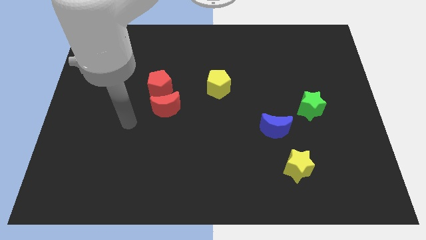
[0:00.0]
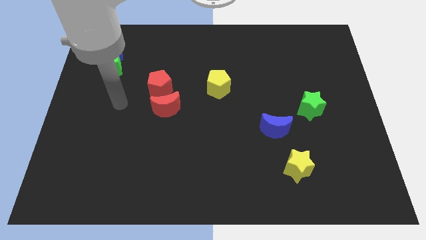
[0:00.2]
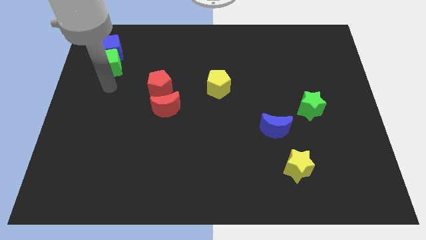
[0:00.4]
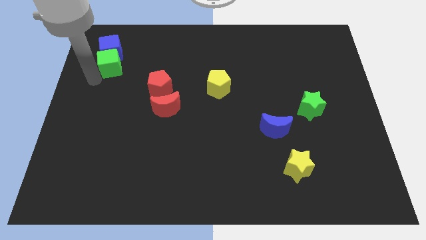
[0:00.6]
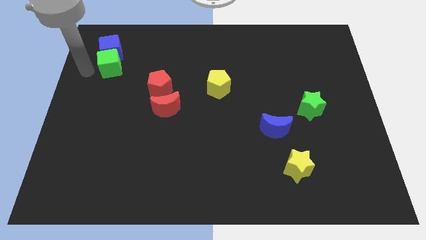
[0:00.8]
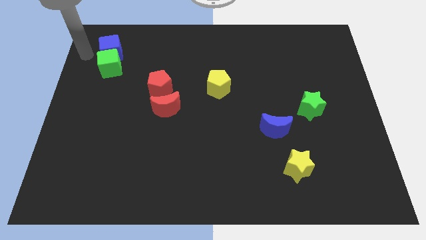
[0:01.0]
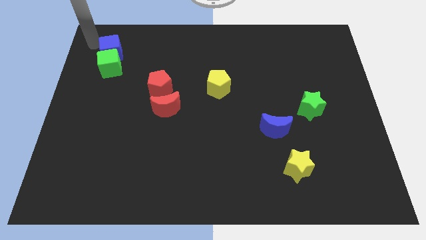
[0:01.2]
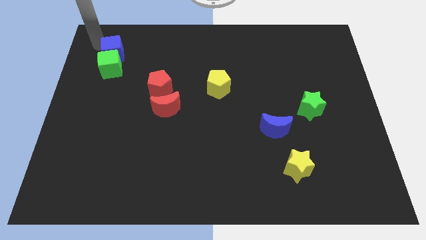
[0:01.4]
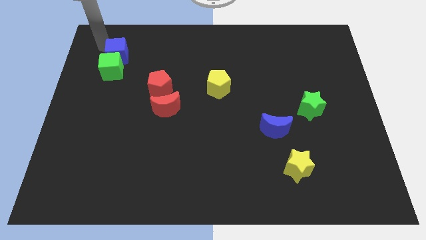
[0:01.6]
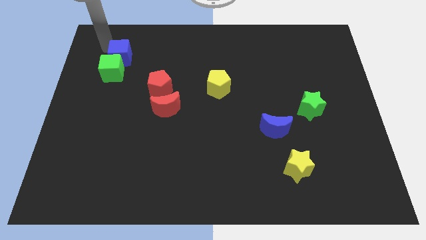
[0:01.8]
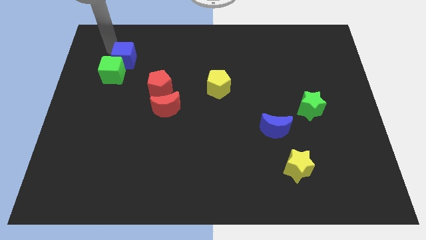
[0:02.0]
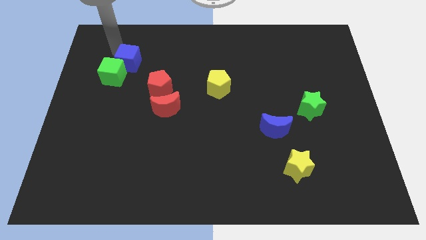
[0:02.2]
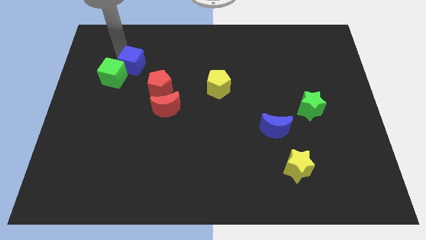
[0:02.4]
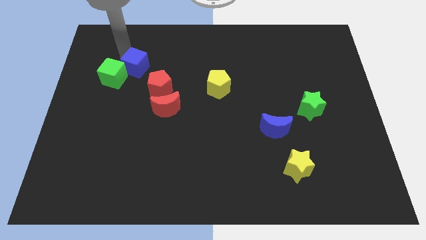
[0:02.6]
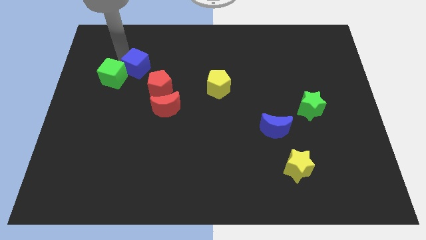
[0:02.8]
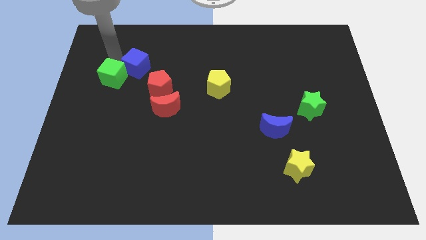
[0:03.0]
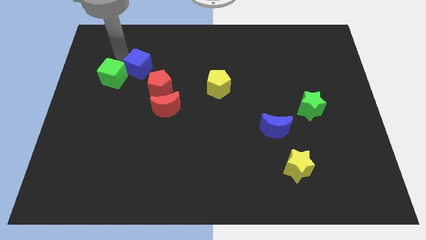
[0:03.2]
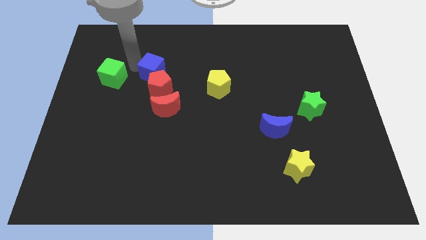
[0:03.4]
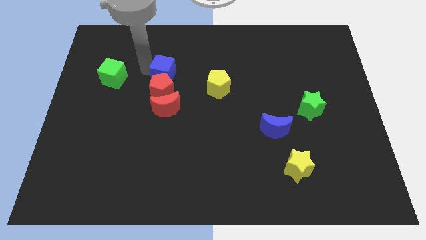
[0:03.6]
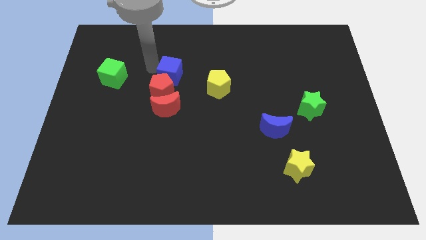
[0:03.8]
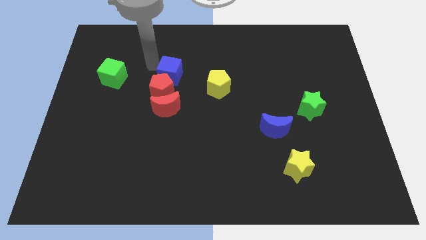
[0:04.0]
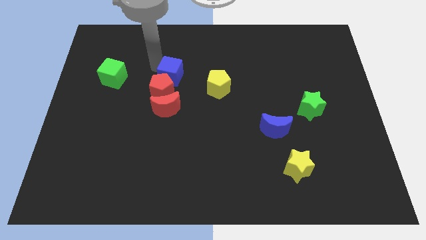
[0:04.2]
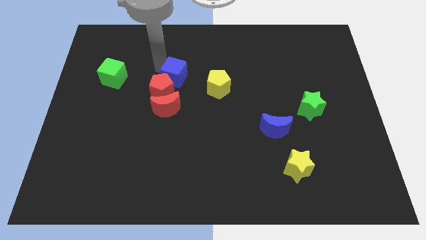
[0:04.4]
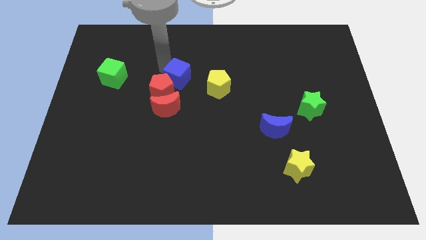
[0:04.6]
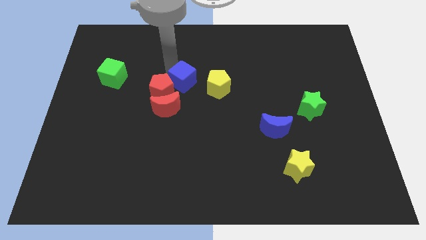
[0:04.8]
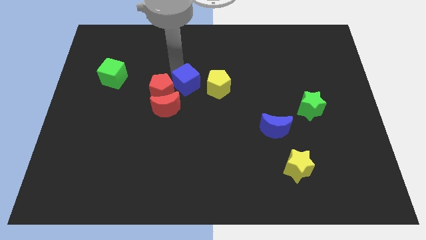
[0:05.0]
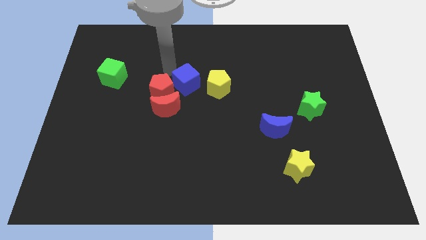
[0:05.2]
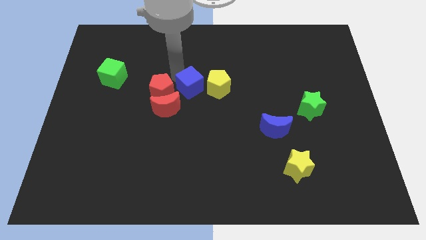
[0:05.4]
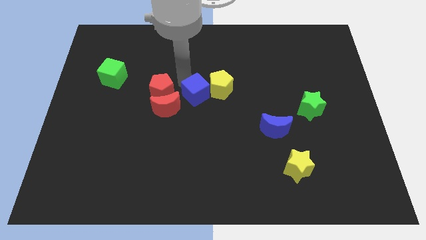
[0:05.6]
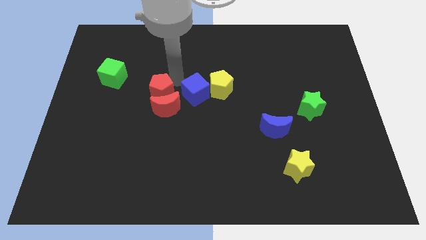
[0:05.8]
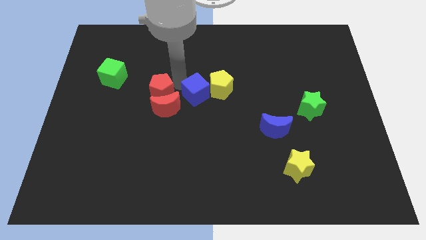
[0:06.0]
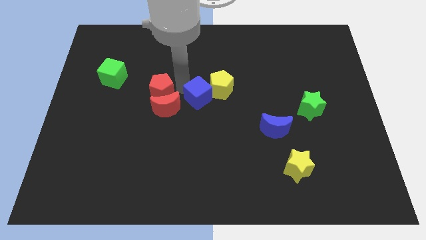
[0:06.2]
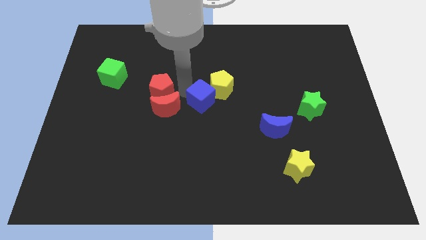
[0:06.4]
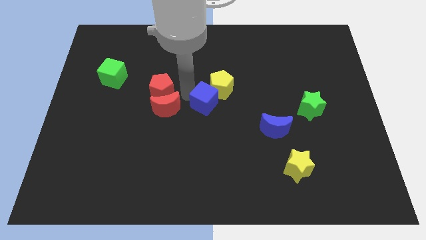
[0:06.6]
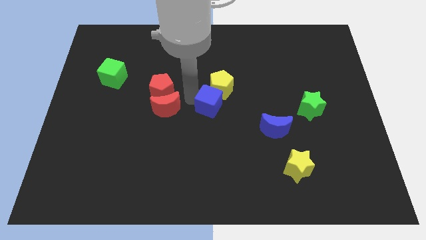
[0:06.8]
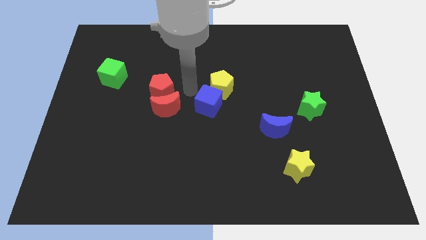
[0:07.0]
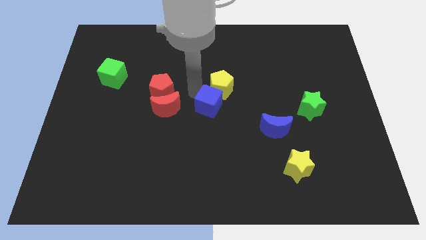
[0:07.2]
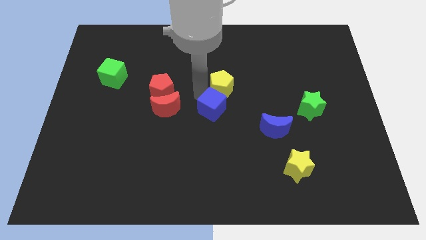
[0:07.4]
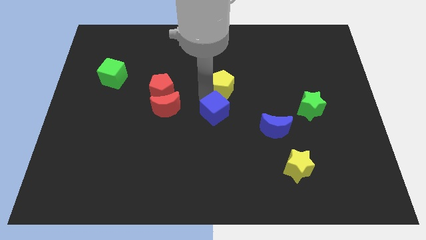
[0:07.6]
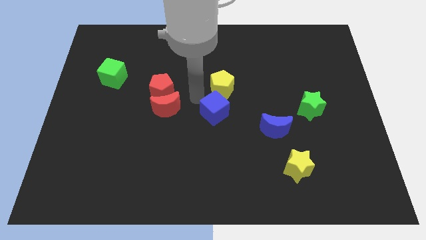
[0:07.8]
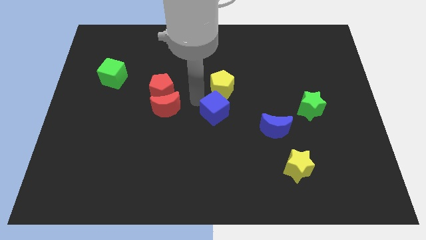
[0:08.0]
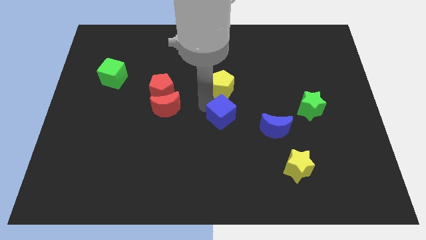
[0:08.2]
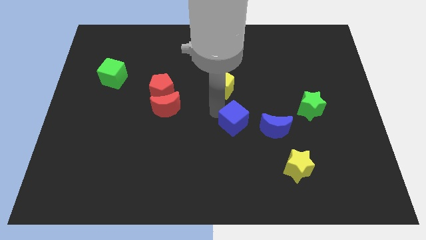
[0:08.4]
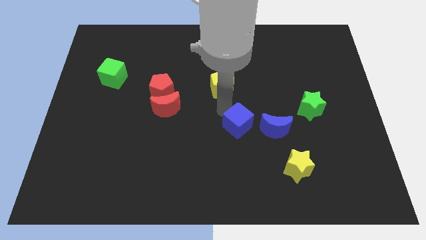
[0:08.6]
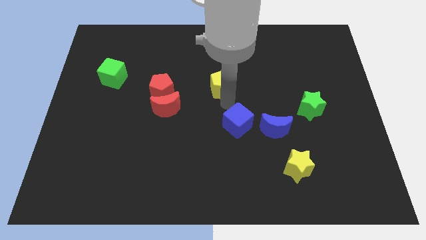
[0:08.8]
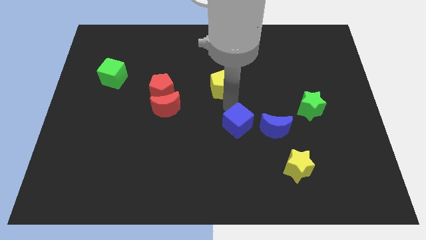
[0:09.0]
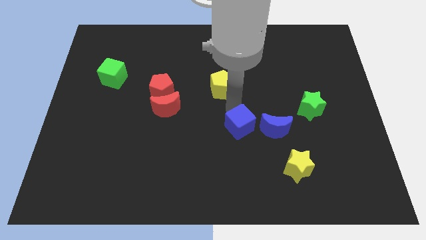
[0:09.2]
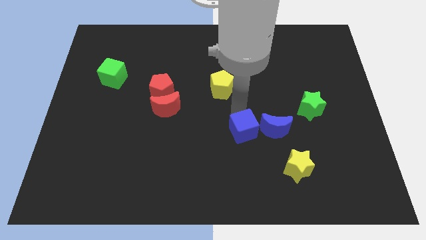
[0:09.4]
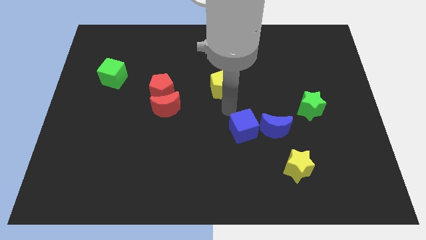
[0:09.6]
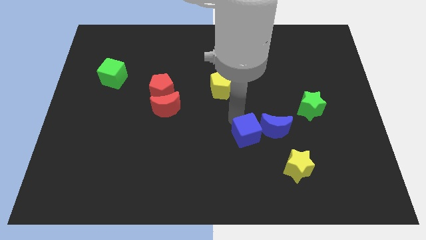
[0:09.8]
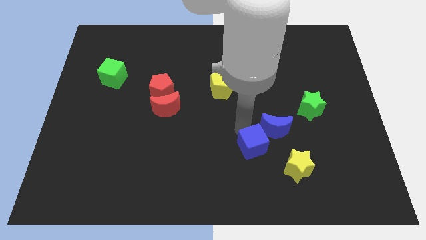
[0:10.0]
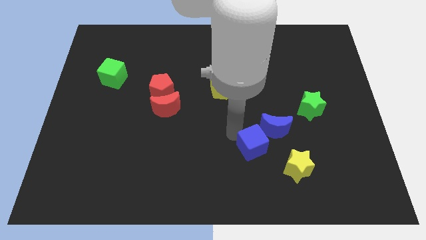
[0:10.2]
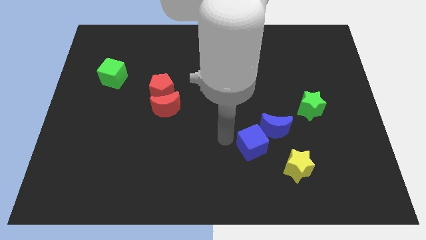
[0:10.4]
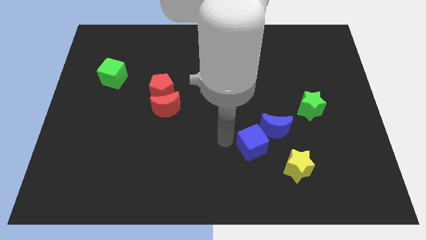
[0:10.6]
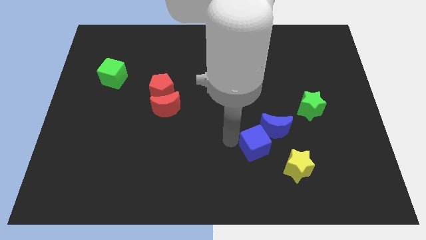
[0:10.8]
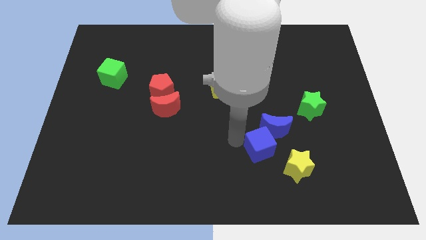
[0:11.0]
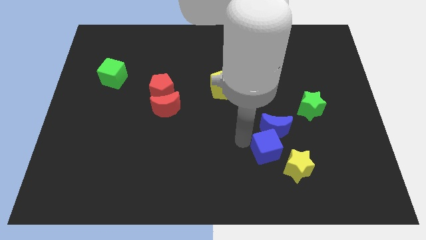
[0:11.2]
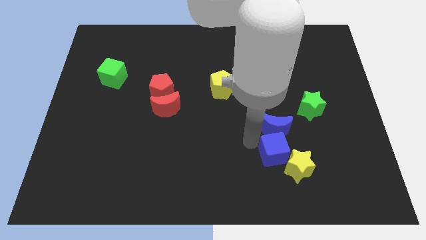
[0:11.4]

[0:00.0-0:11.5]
slide the blue cube diagonally down and to the right of the blue moon
